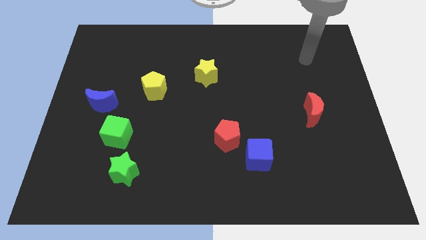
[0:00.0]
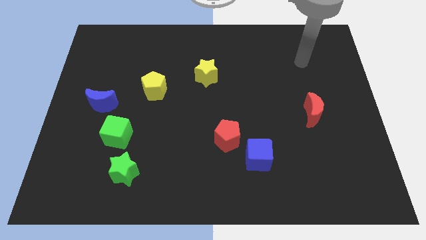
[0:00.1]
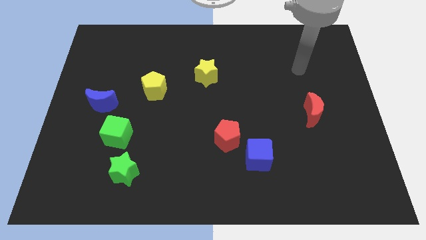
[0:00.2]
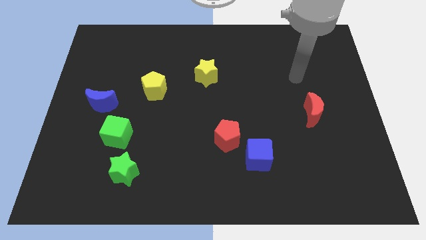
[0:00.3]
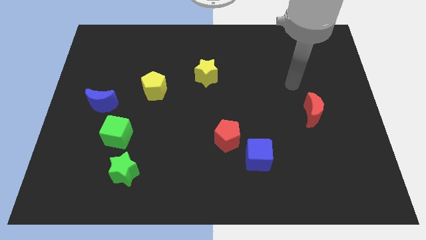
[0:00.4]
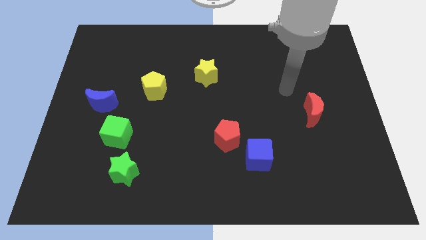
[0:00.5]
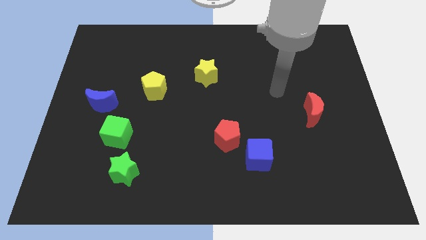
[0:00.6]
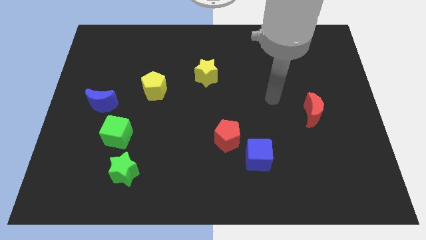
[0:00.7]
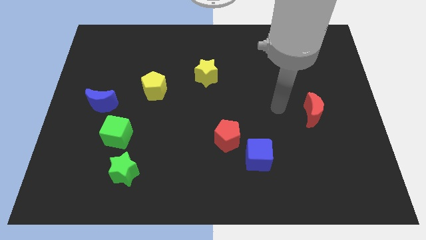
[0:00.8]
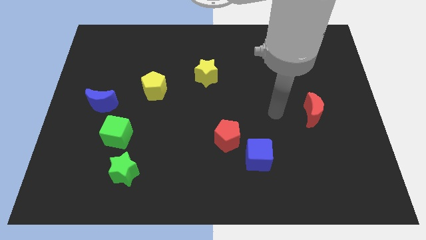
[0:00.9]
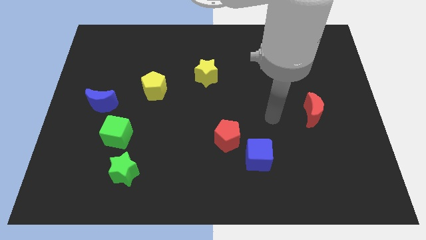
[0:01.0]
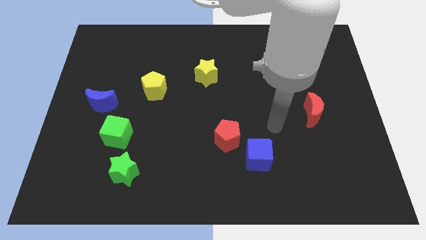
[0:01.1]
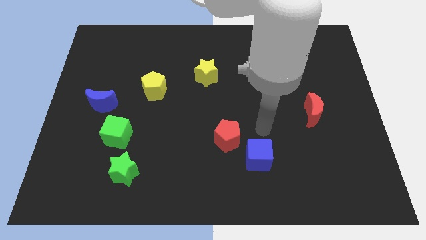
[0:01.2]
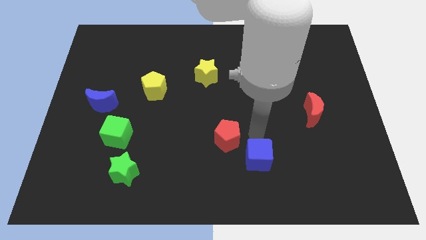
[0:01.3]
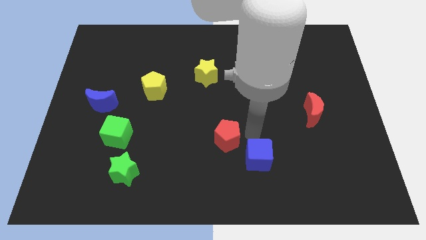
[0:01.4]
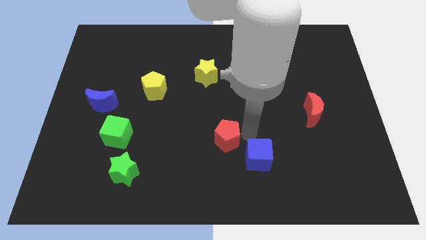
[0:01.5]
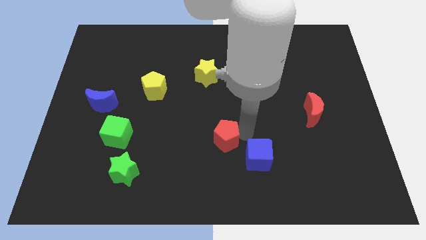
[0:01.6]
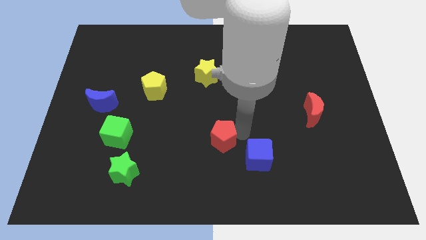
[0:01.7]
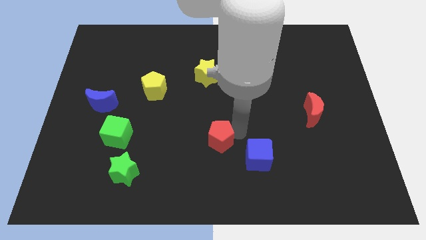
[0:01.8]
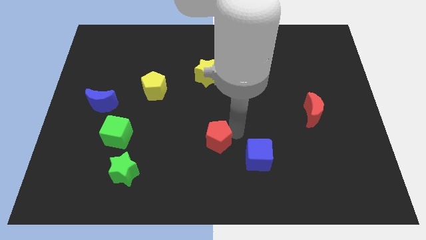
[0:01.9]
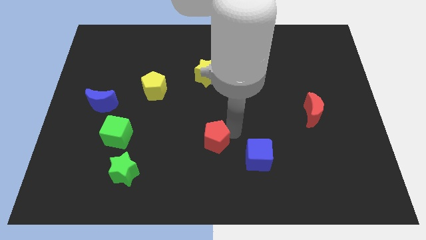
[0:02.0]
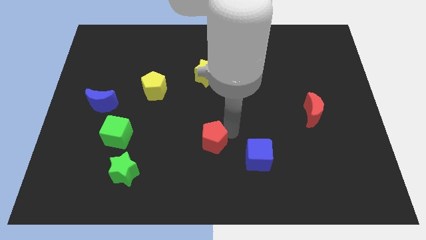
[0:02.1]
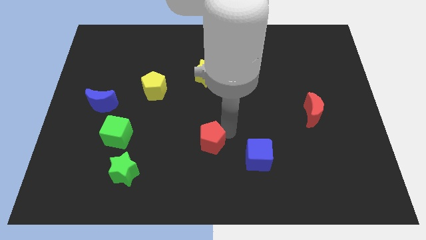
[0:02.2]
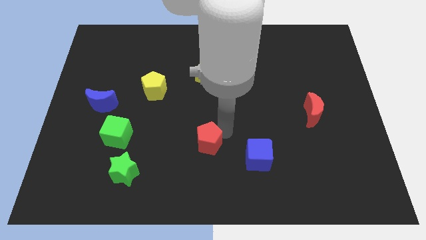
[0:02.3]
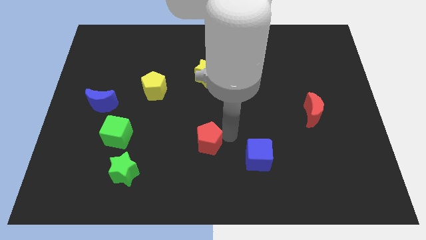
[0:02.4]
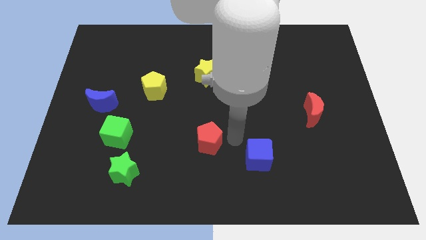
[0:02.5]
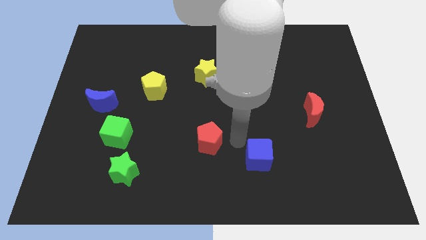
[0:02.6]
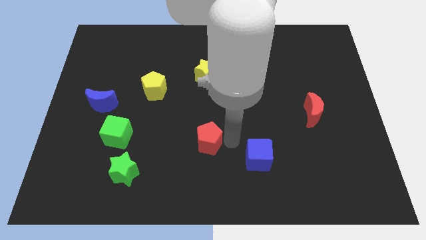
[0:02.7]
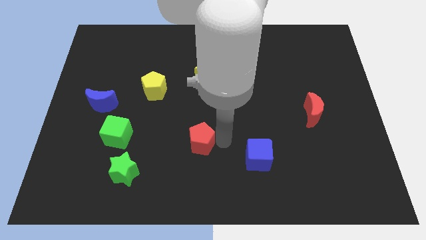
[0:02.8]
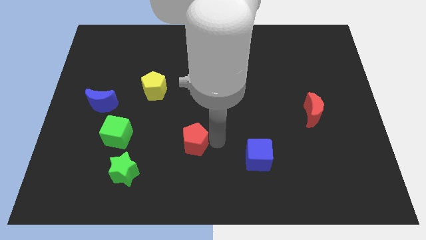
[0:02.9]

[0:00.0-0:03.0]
slightly move the red pentagon to the left

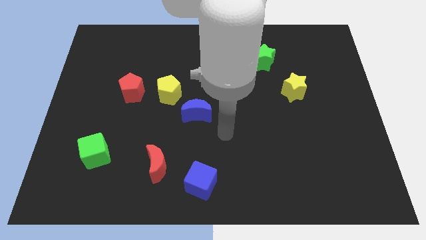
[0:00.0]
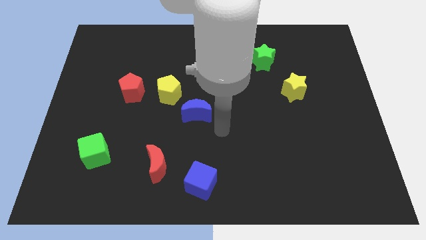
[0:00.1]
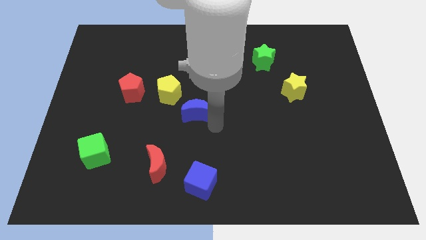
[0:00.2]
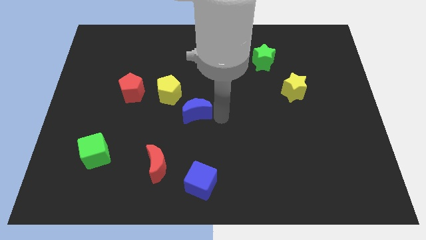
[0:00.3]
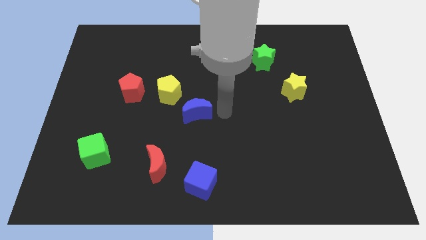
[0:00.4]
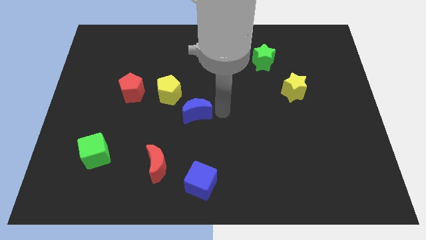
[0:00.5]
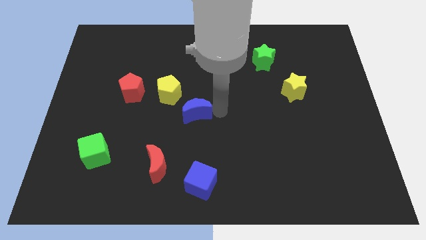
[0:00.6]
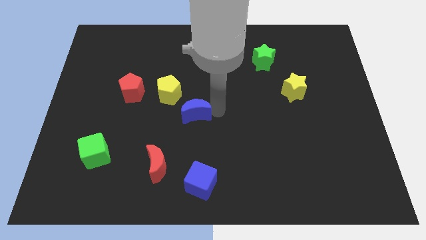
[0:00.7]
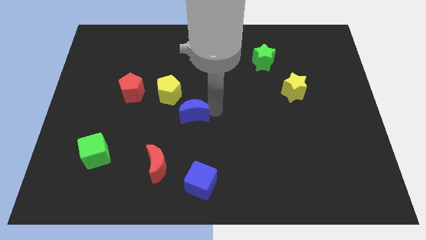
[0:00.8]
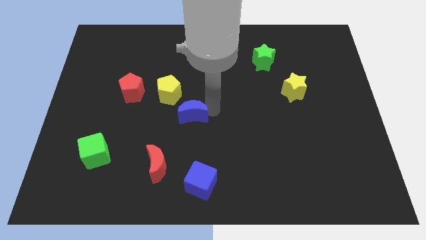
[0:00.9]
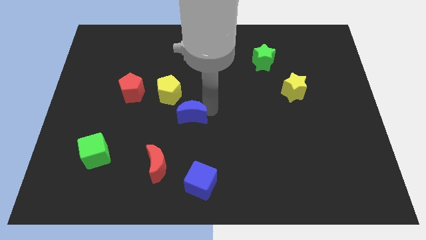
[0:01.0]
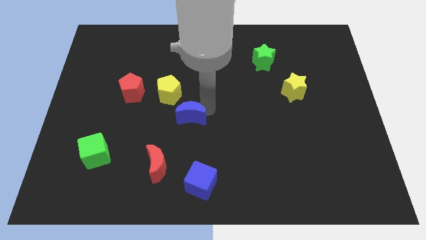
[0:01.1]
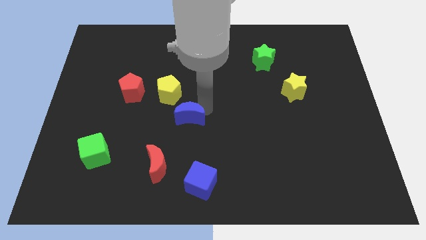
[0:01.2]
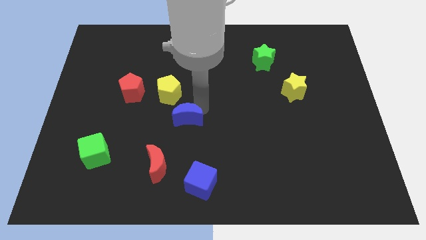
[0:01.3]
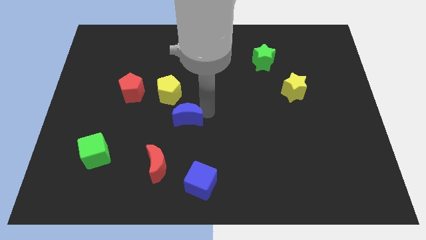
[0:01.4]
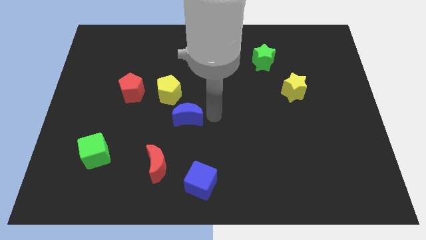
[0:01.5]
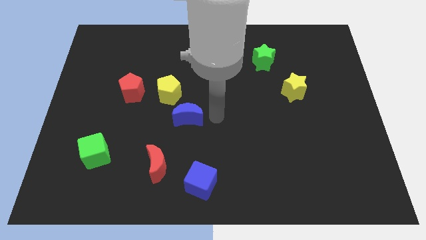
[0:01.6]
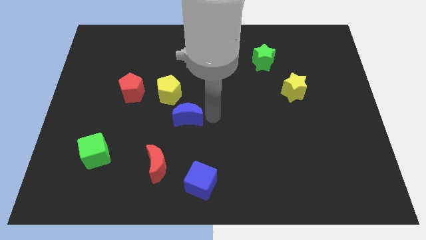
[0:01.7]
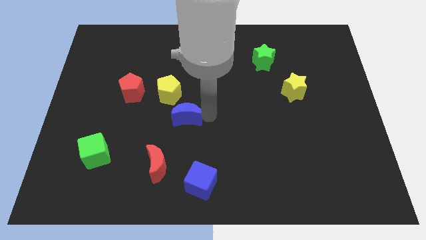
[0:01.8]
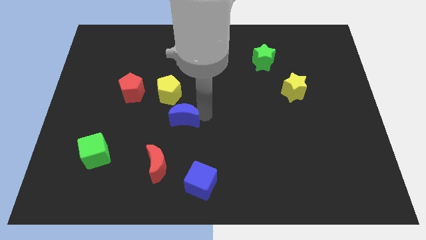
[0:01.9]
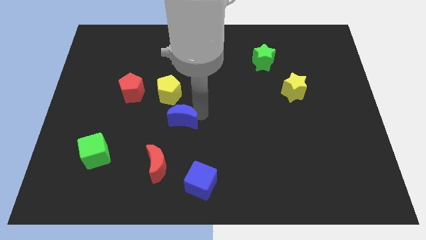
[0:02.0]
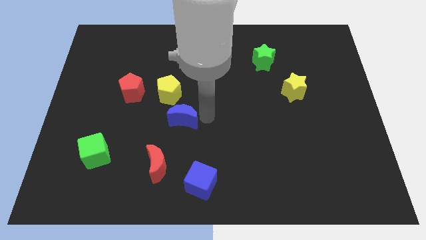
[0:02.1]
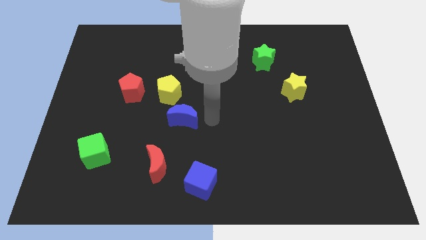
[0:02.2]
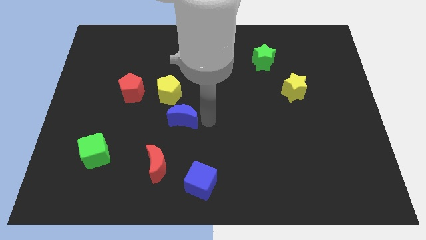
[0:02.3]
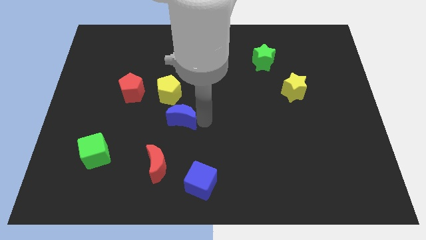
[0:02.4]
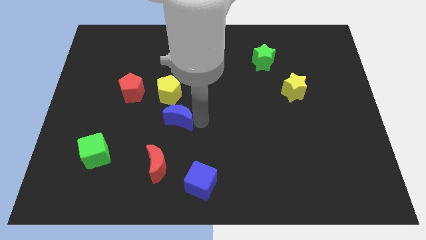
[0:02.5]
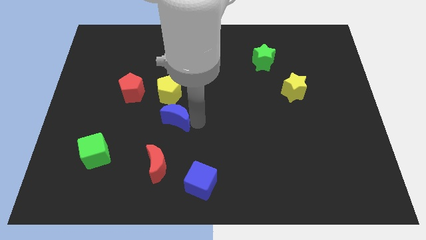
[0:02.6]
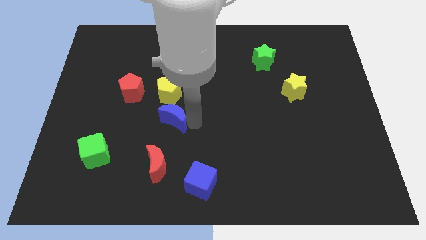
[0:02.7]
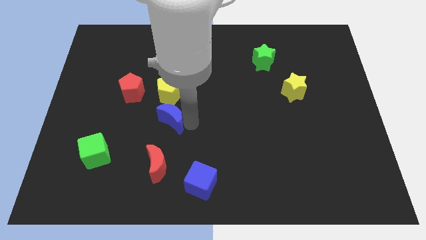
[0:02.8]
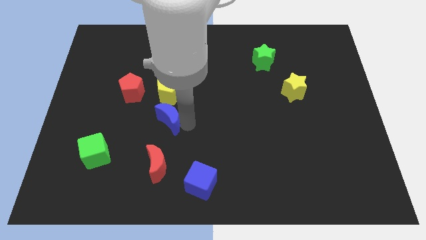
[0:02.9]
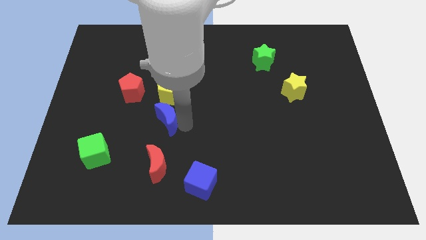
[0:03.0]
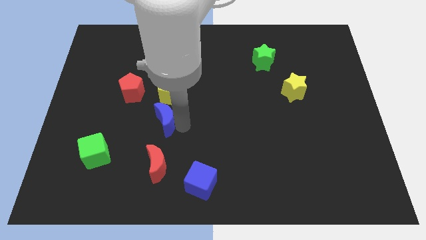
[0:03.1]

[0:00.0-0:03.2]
slightly move the blue moon left

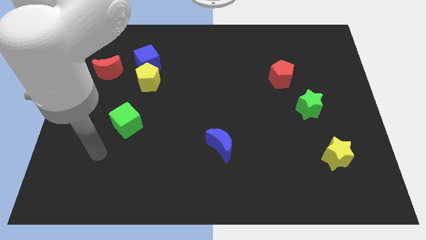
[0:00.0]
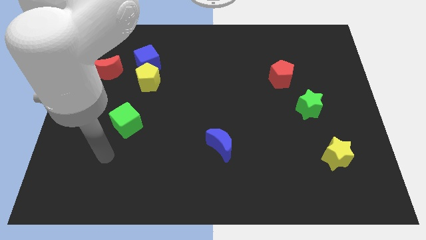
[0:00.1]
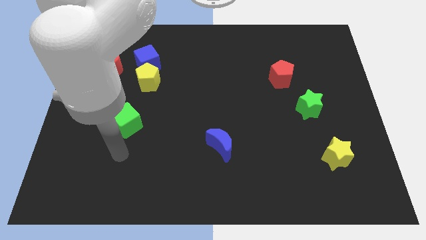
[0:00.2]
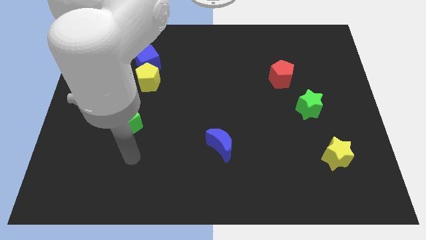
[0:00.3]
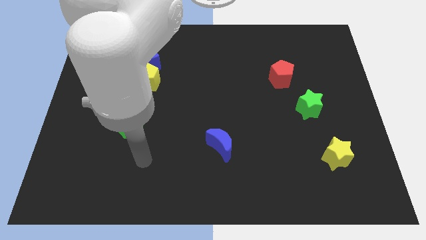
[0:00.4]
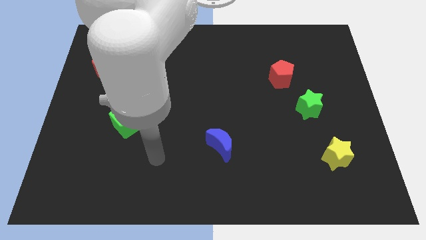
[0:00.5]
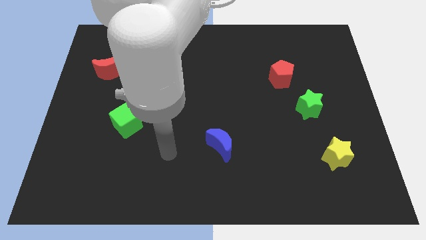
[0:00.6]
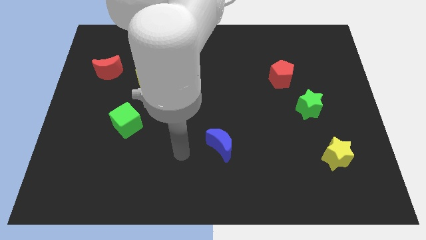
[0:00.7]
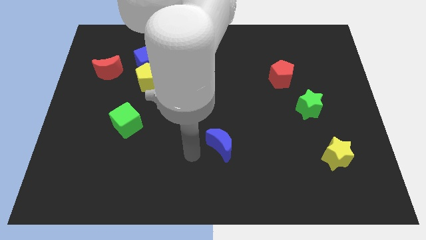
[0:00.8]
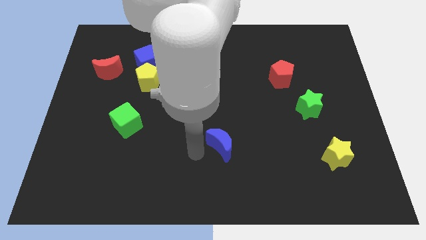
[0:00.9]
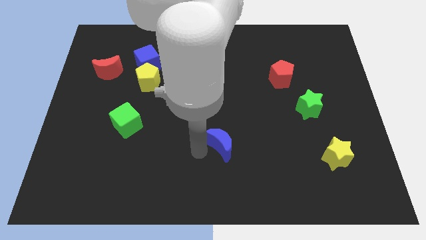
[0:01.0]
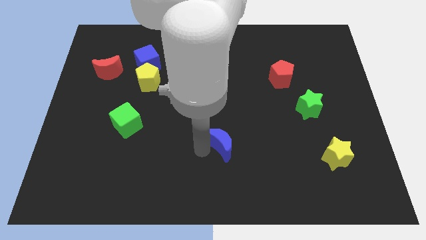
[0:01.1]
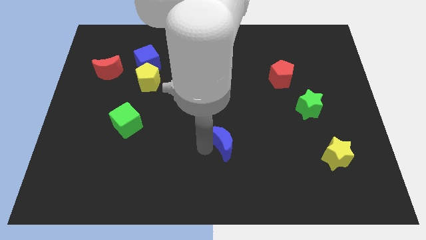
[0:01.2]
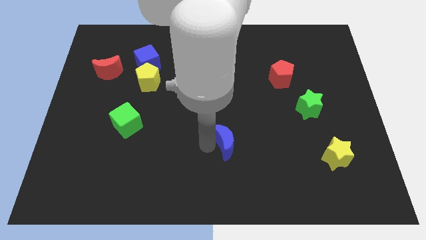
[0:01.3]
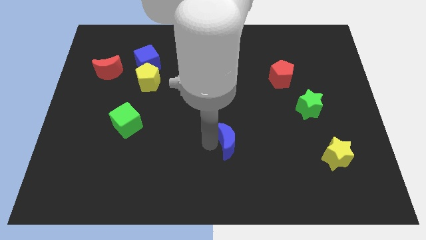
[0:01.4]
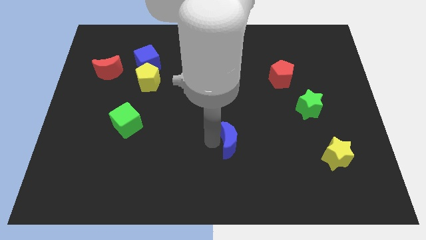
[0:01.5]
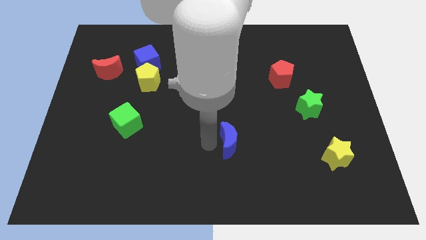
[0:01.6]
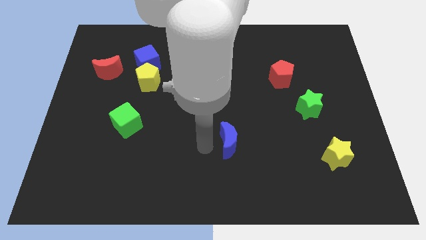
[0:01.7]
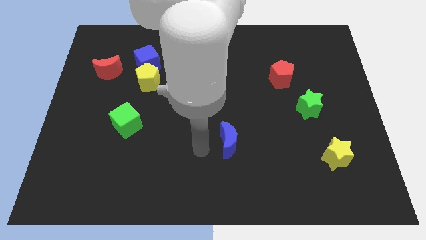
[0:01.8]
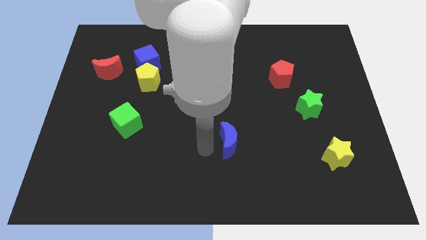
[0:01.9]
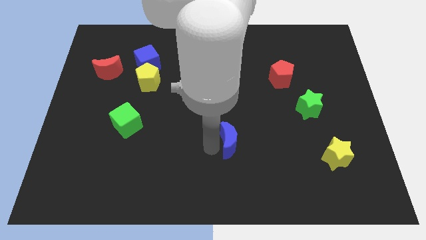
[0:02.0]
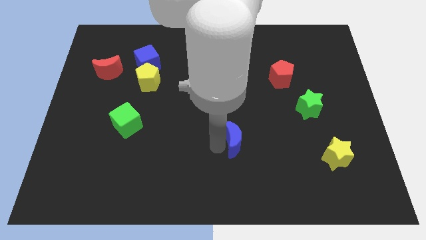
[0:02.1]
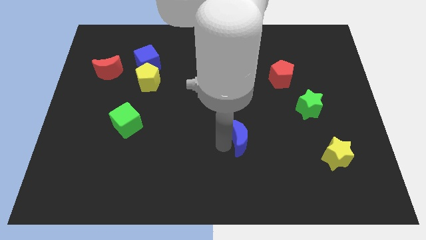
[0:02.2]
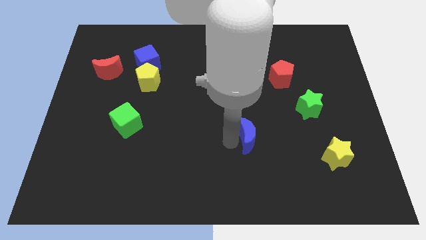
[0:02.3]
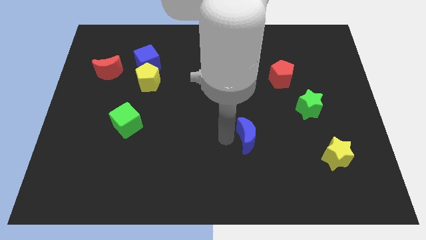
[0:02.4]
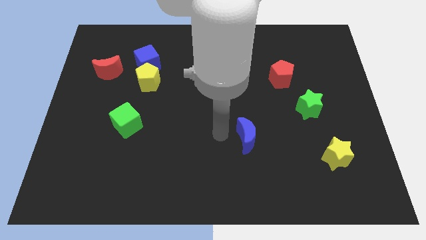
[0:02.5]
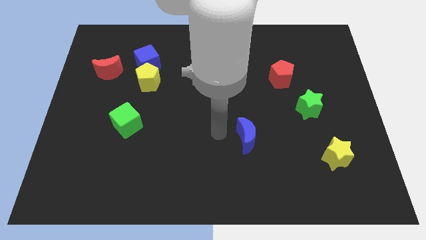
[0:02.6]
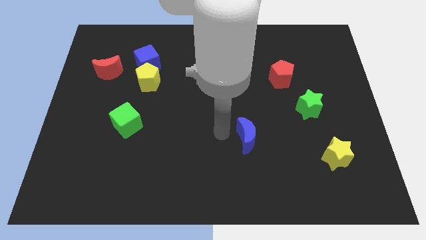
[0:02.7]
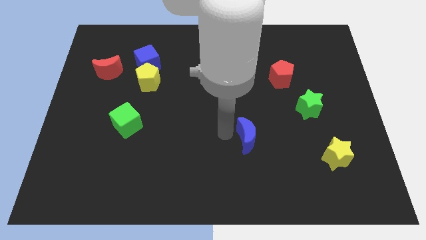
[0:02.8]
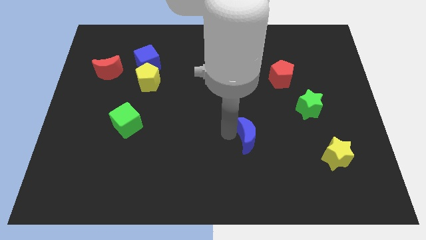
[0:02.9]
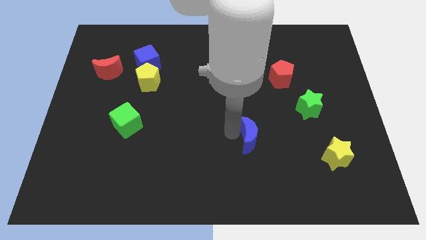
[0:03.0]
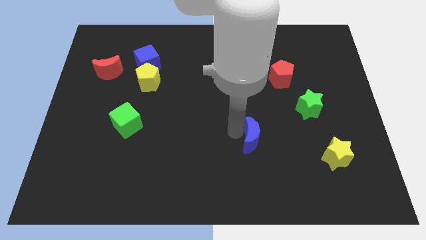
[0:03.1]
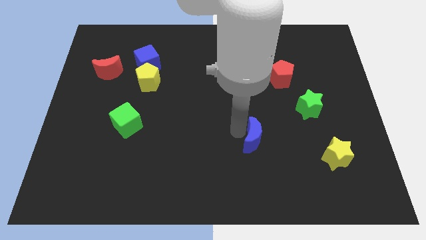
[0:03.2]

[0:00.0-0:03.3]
push the blue moon a little right
